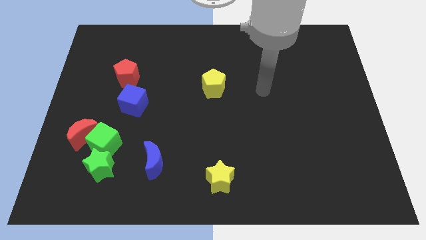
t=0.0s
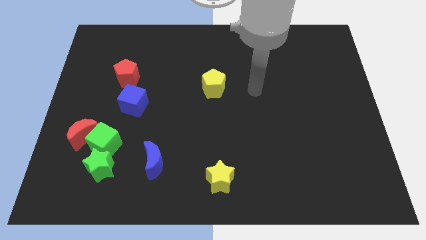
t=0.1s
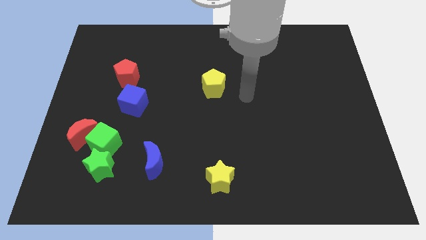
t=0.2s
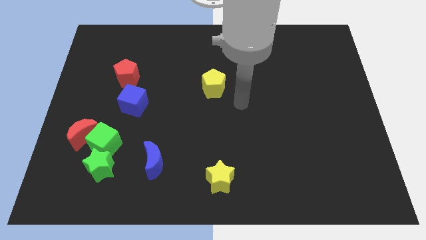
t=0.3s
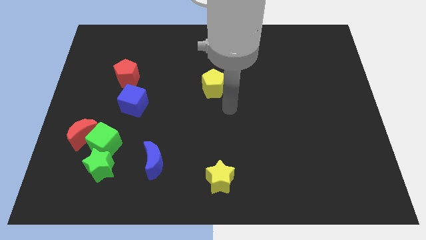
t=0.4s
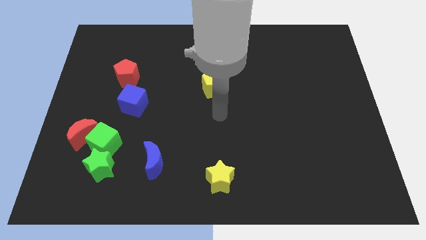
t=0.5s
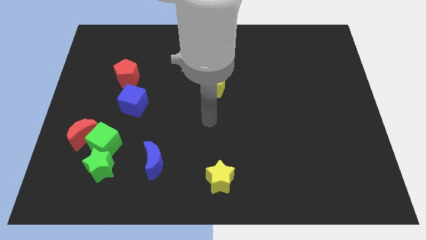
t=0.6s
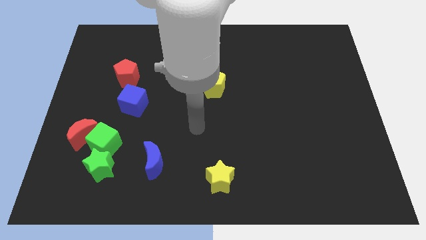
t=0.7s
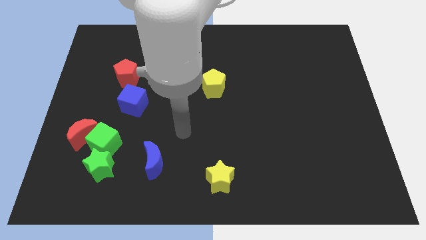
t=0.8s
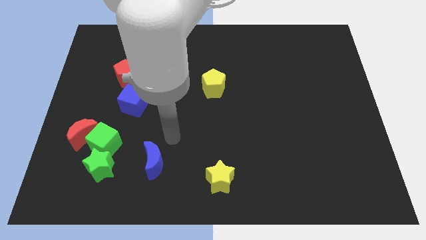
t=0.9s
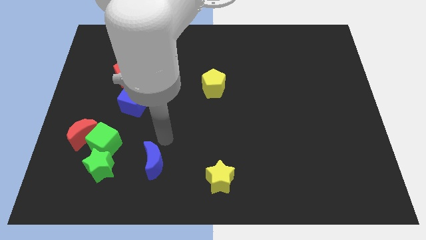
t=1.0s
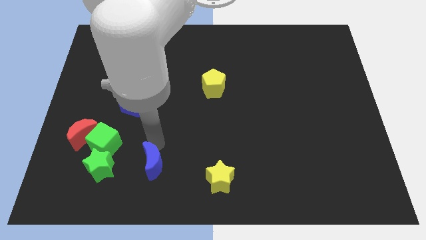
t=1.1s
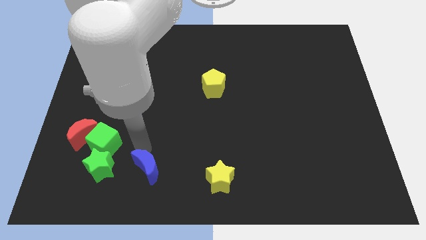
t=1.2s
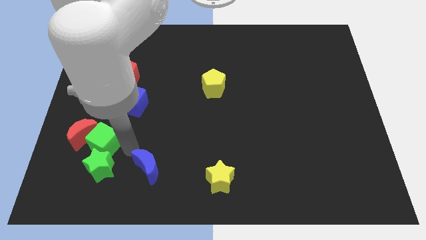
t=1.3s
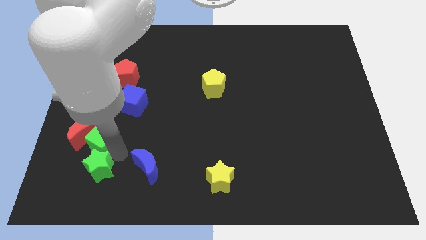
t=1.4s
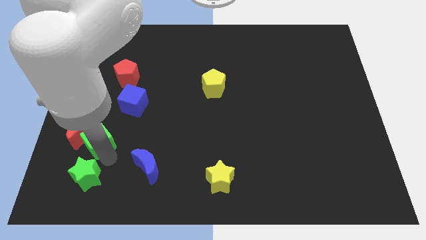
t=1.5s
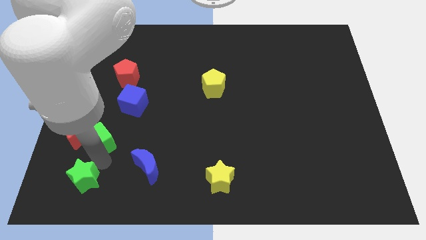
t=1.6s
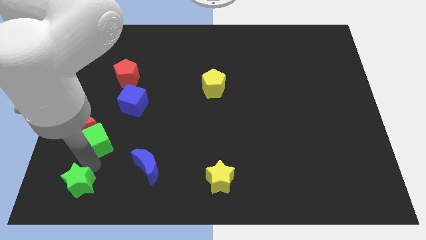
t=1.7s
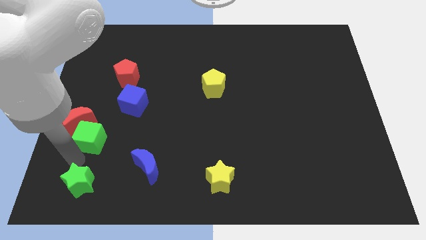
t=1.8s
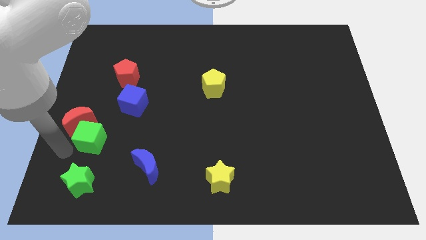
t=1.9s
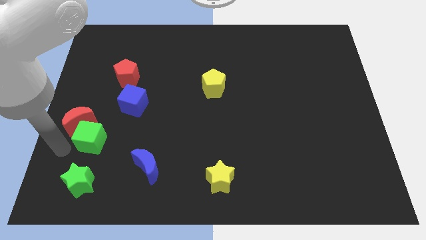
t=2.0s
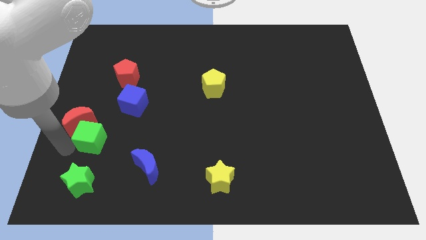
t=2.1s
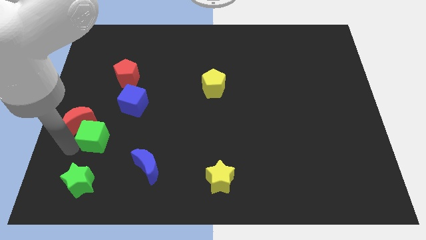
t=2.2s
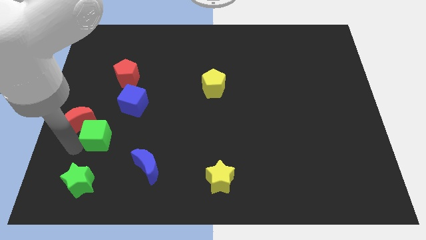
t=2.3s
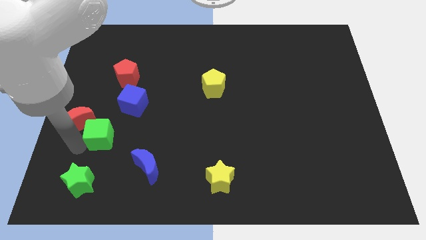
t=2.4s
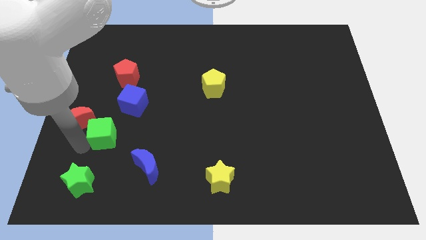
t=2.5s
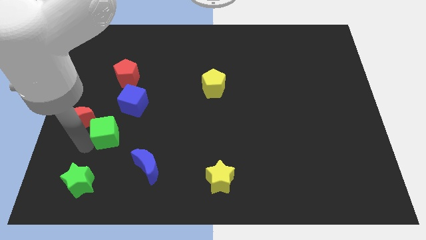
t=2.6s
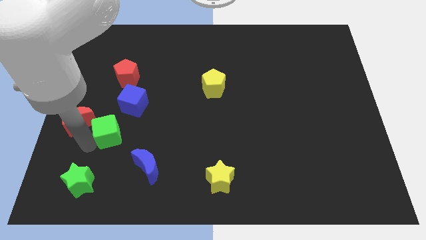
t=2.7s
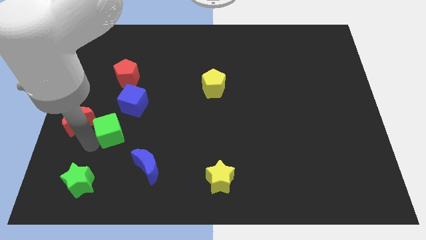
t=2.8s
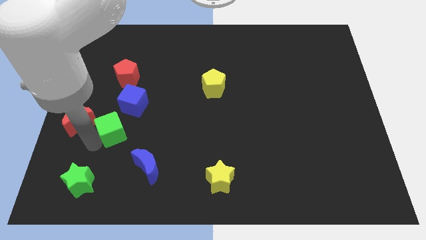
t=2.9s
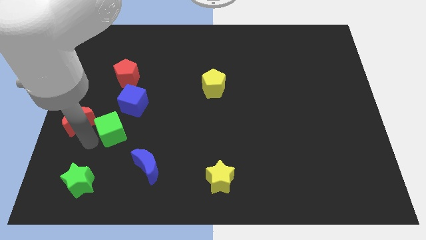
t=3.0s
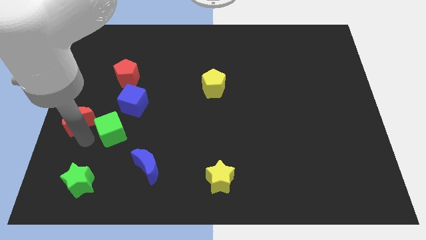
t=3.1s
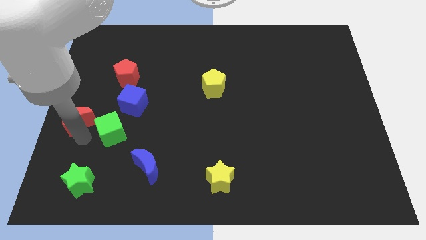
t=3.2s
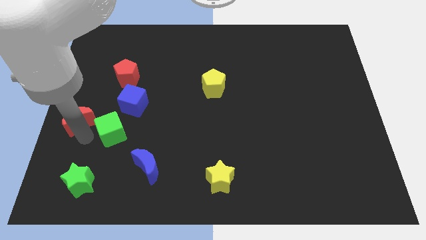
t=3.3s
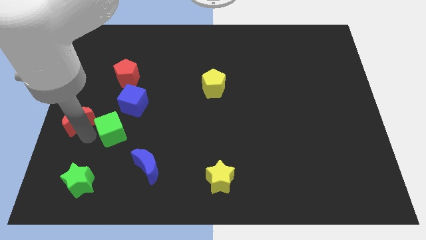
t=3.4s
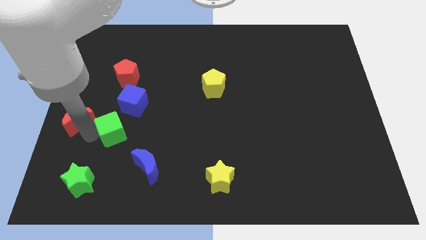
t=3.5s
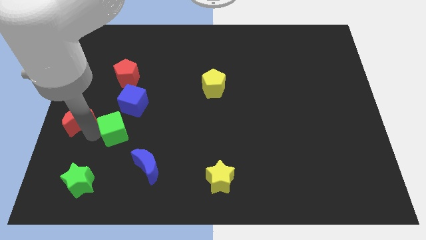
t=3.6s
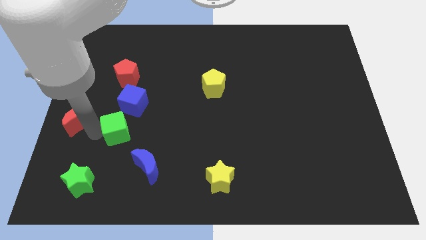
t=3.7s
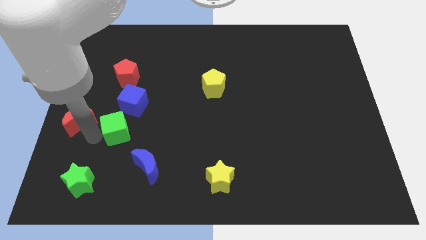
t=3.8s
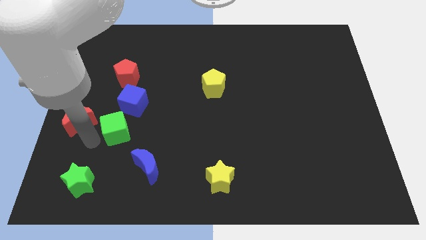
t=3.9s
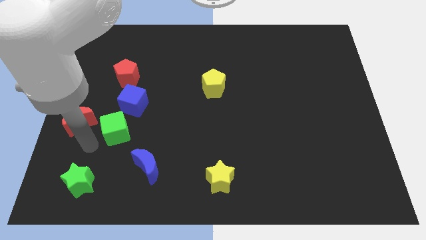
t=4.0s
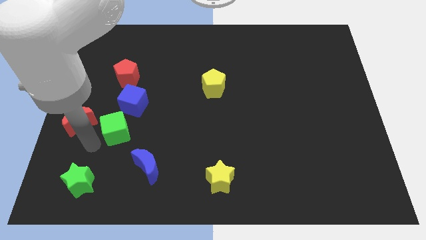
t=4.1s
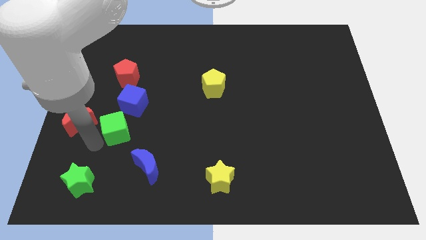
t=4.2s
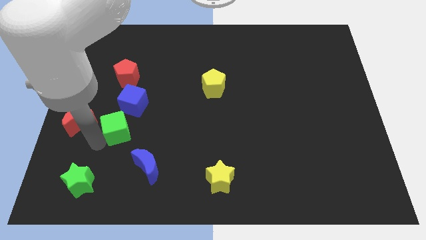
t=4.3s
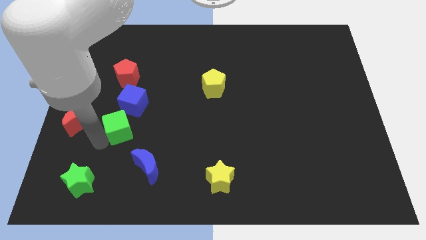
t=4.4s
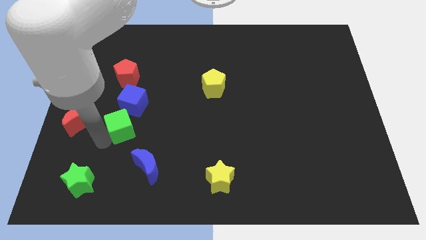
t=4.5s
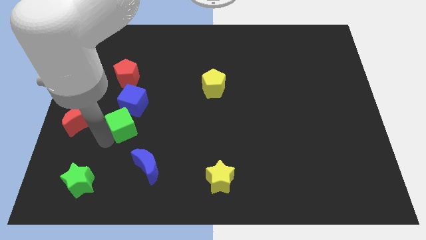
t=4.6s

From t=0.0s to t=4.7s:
move the green cube away from the red moon and green star

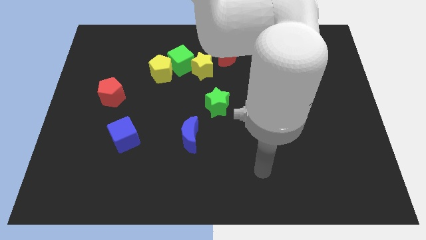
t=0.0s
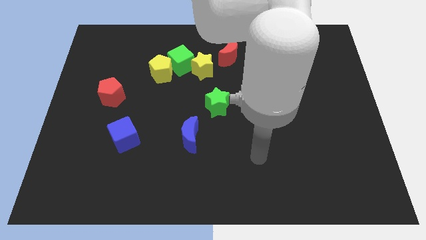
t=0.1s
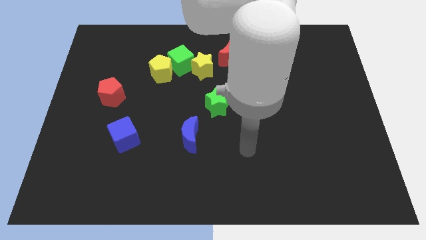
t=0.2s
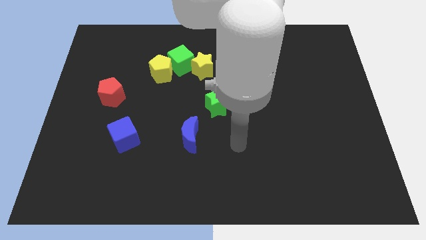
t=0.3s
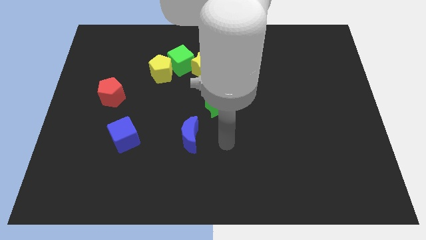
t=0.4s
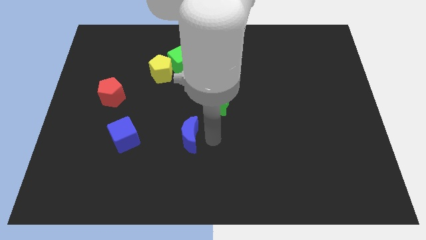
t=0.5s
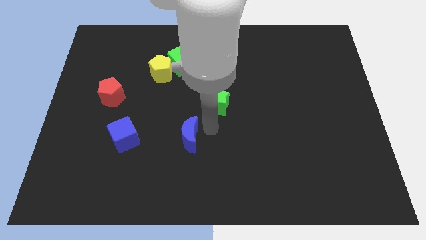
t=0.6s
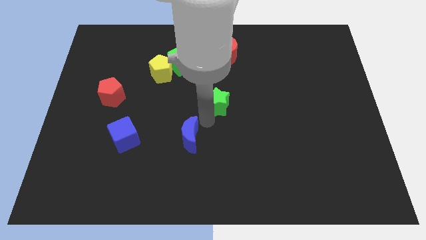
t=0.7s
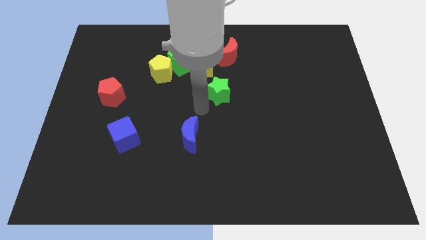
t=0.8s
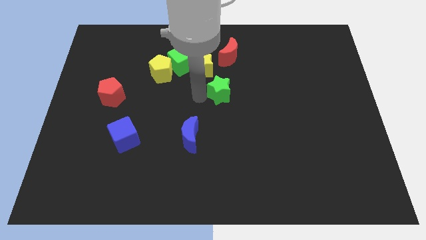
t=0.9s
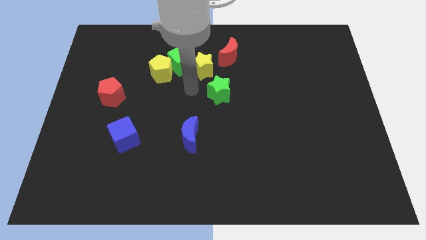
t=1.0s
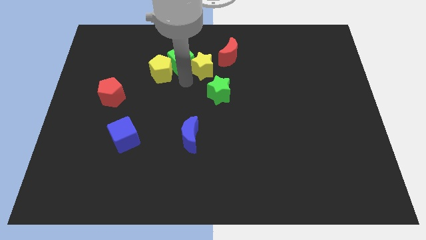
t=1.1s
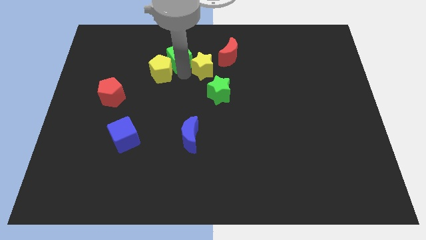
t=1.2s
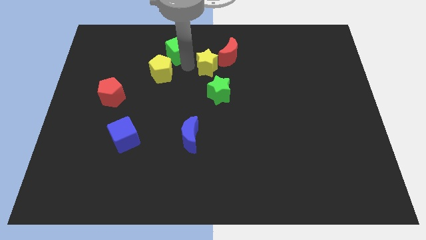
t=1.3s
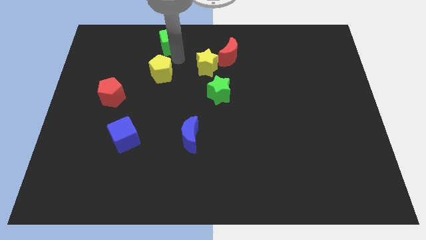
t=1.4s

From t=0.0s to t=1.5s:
separate the yellow pentagon from the green cube

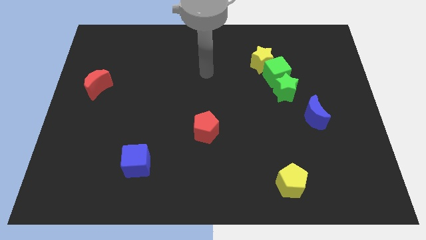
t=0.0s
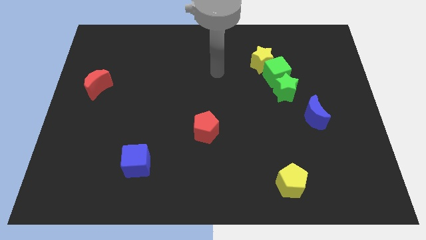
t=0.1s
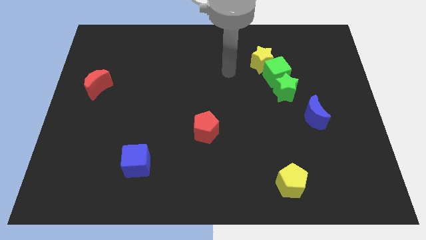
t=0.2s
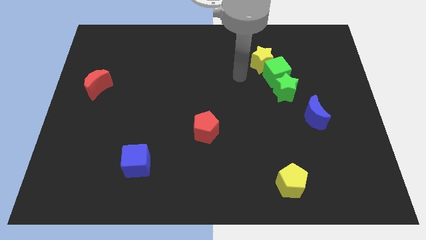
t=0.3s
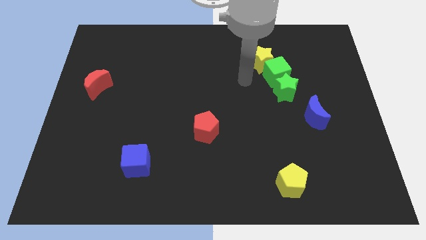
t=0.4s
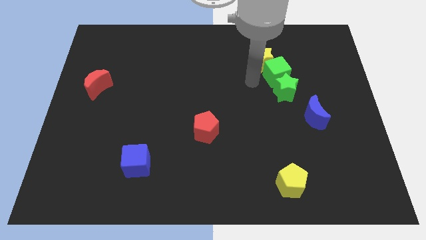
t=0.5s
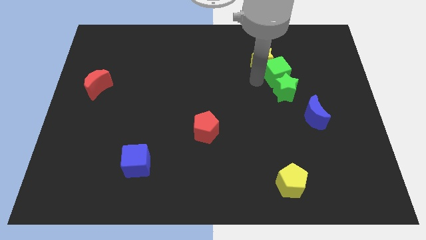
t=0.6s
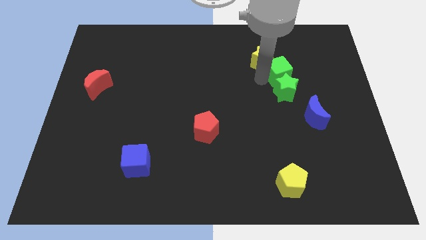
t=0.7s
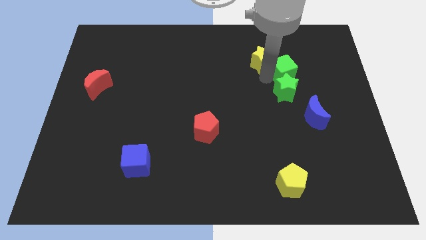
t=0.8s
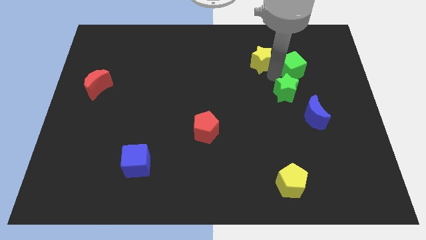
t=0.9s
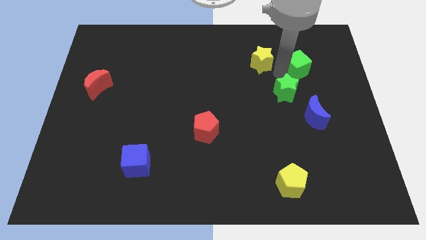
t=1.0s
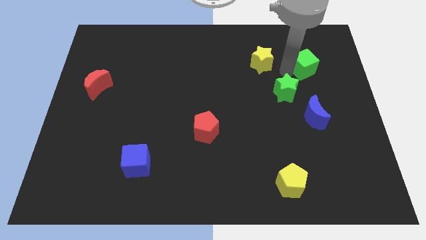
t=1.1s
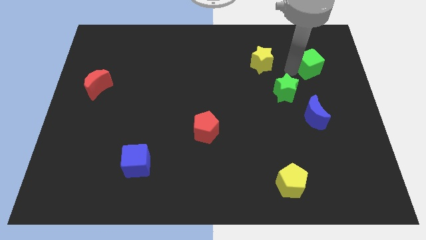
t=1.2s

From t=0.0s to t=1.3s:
move the green cube away from the green star and yellow star

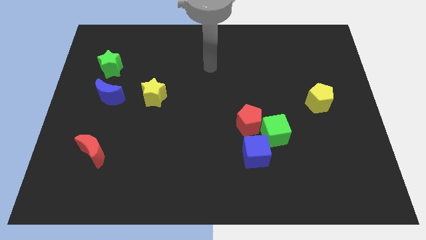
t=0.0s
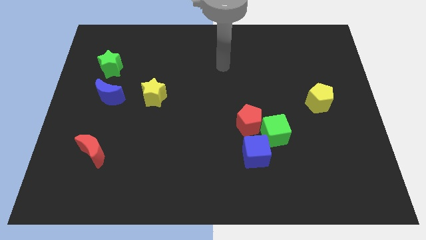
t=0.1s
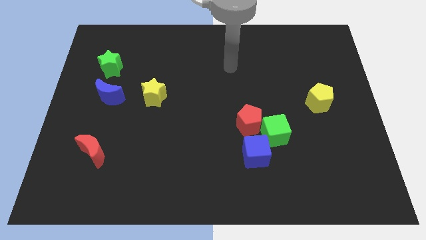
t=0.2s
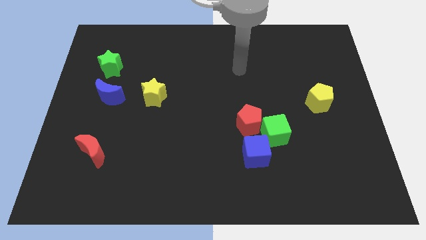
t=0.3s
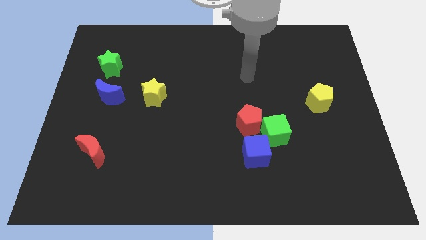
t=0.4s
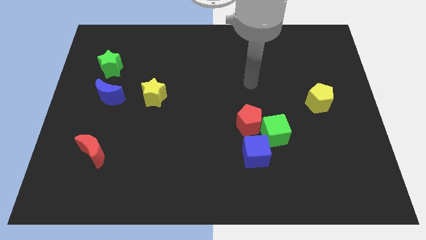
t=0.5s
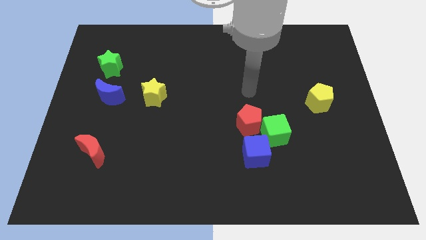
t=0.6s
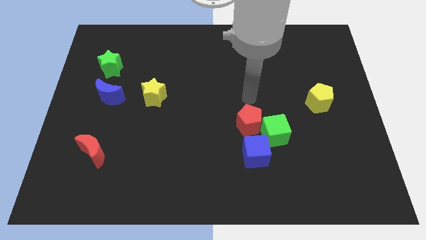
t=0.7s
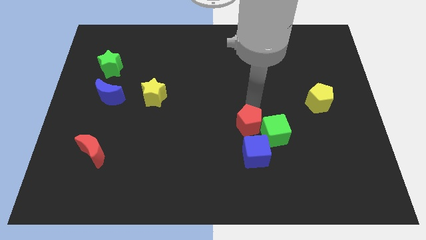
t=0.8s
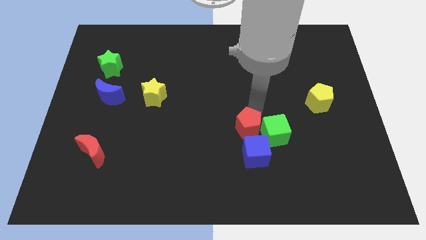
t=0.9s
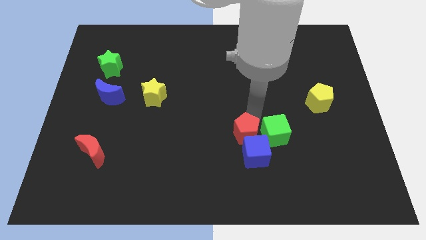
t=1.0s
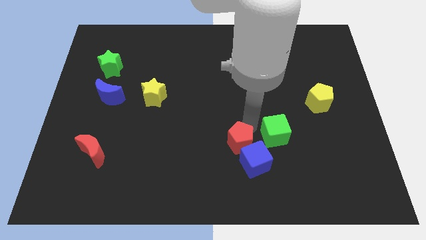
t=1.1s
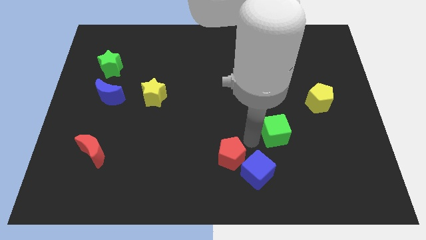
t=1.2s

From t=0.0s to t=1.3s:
pull the green cube apart from the red pentagon and blue cube

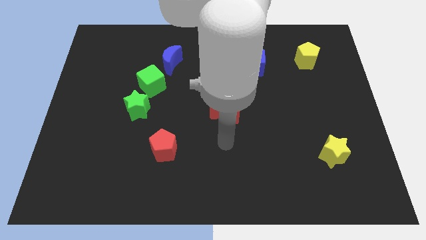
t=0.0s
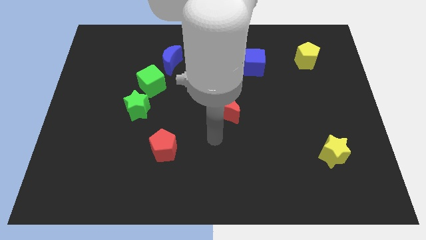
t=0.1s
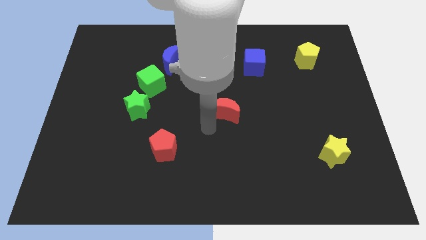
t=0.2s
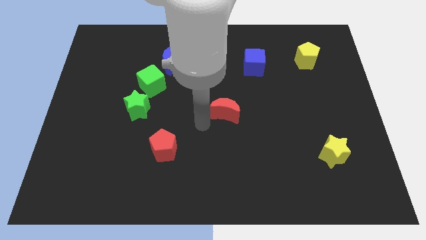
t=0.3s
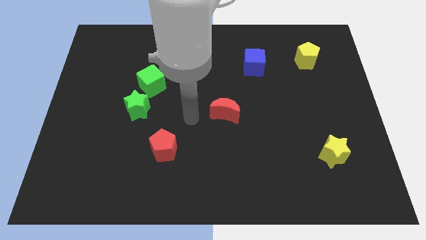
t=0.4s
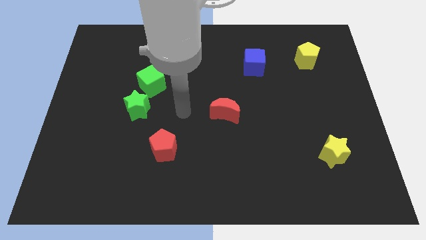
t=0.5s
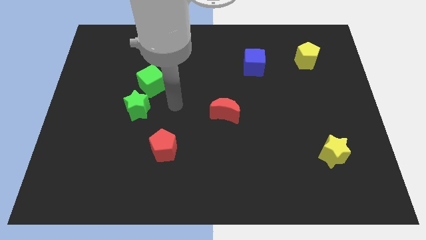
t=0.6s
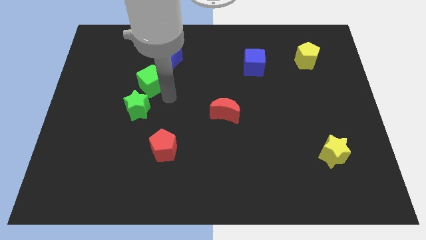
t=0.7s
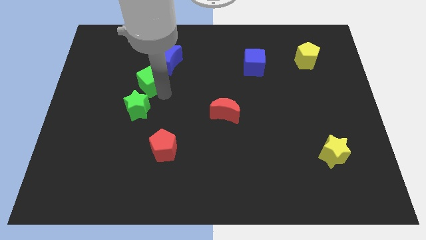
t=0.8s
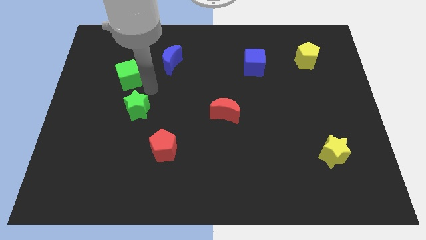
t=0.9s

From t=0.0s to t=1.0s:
separate the green star from the green cube
